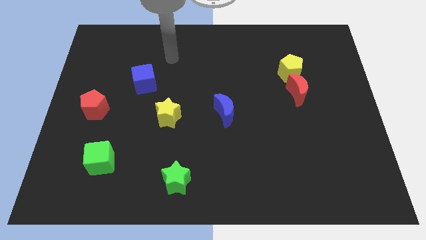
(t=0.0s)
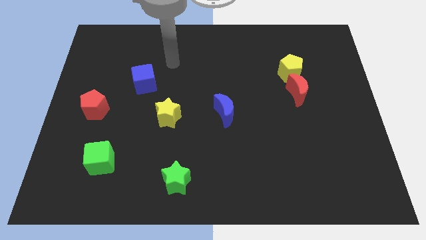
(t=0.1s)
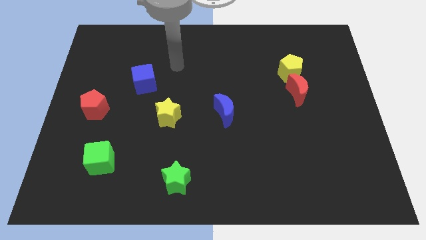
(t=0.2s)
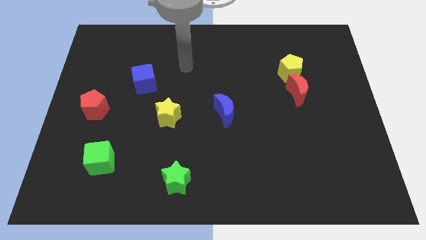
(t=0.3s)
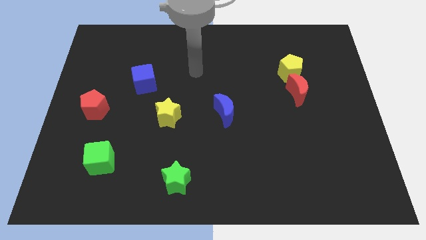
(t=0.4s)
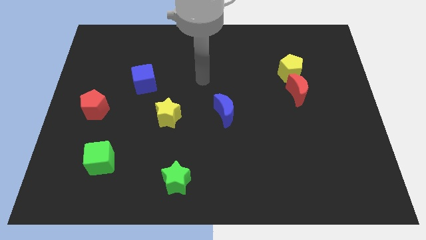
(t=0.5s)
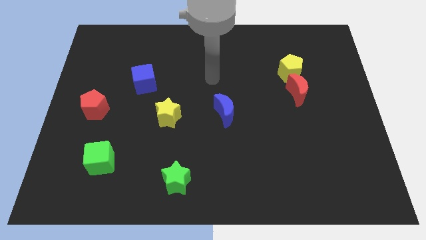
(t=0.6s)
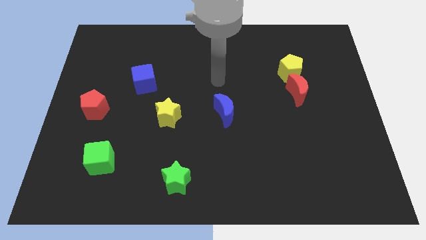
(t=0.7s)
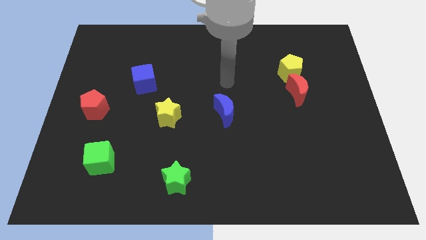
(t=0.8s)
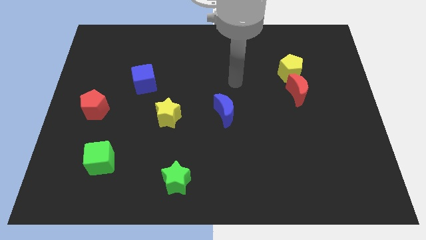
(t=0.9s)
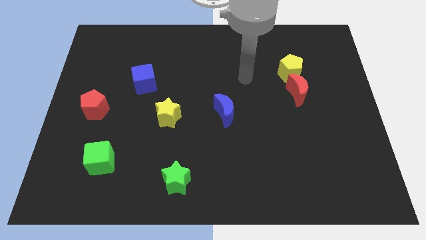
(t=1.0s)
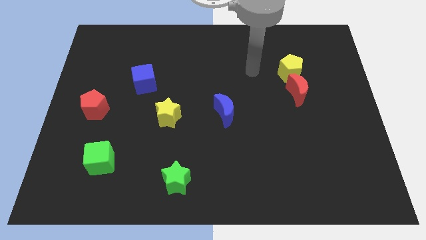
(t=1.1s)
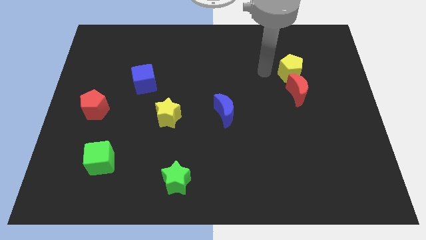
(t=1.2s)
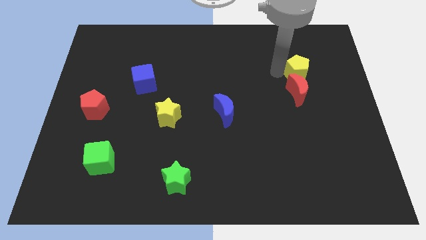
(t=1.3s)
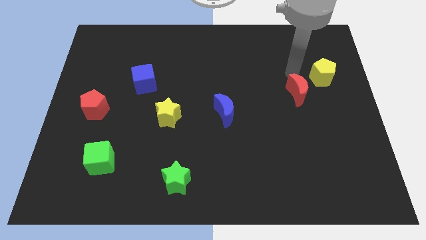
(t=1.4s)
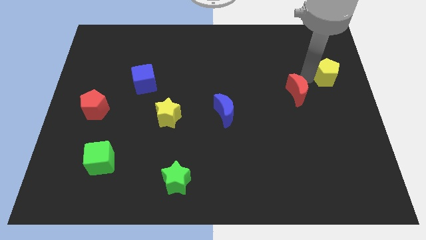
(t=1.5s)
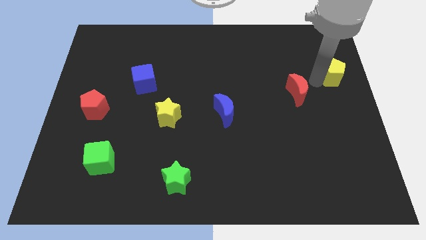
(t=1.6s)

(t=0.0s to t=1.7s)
separate the red moon from the yellow pentagon

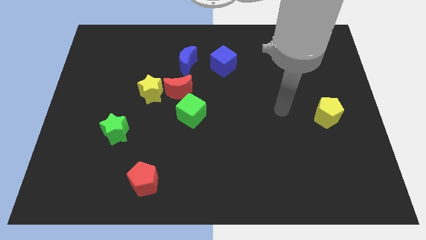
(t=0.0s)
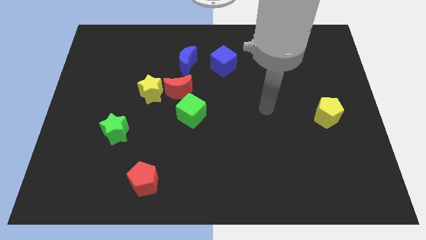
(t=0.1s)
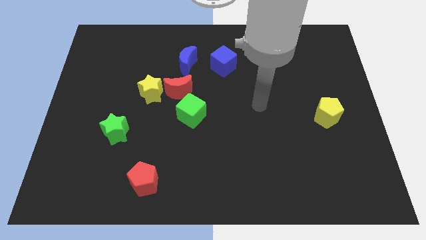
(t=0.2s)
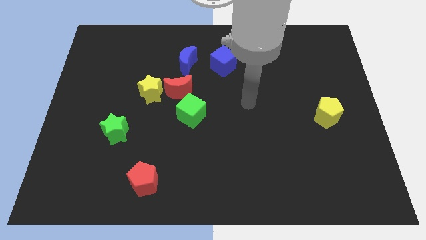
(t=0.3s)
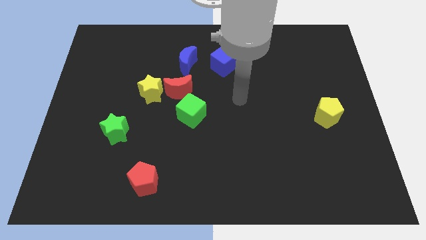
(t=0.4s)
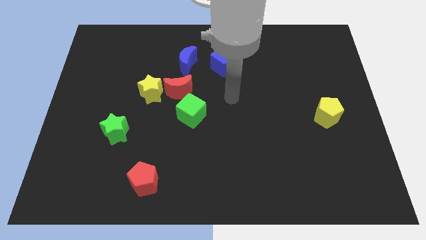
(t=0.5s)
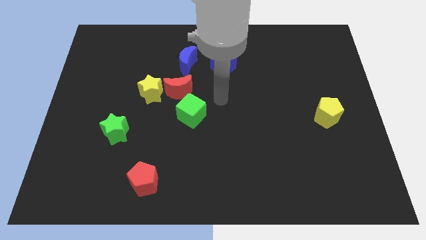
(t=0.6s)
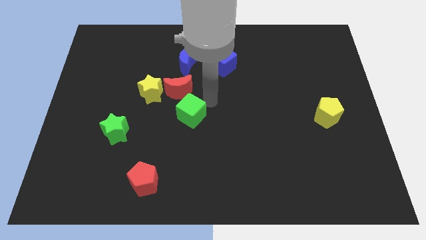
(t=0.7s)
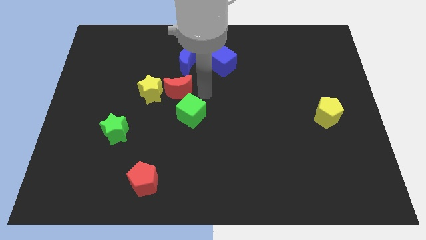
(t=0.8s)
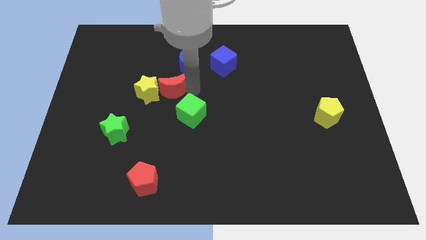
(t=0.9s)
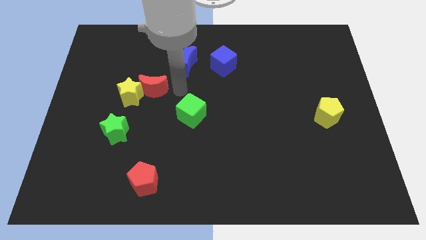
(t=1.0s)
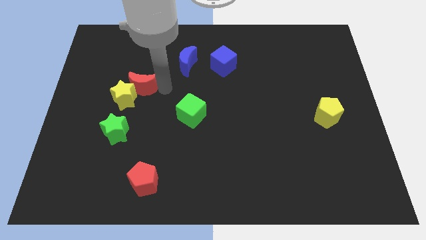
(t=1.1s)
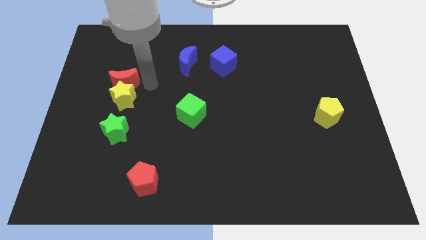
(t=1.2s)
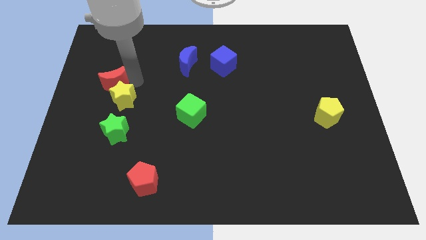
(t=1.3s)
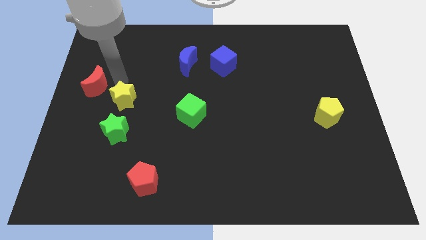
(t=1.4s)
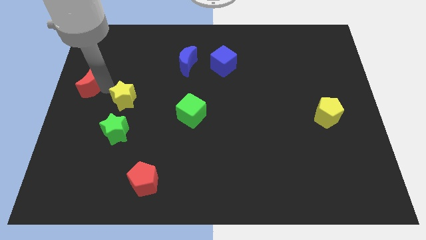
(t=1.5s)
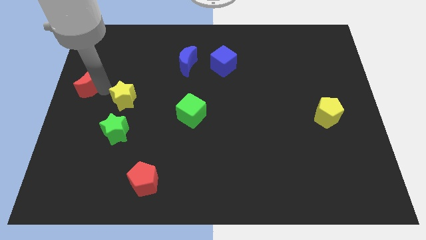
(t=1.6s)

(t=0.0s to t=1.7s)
move the yellow star away from the red moon

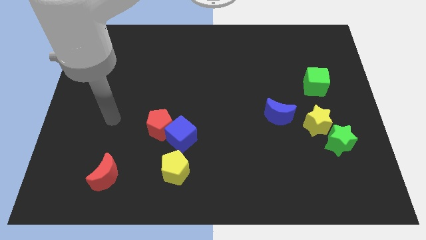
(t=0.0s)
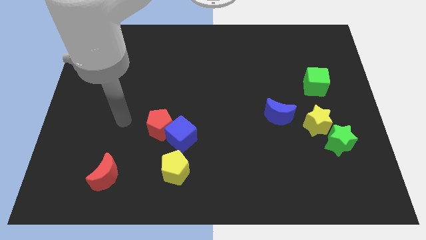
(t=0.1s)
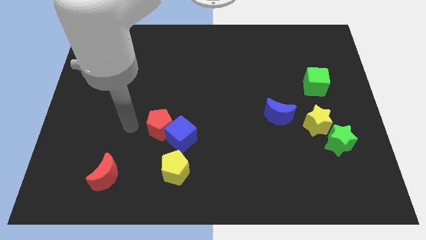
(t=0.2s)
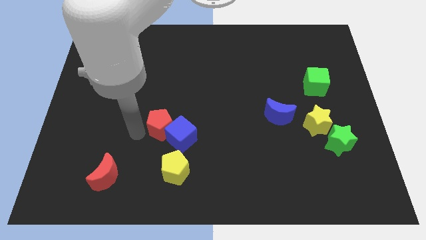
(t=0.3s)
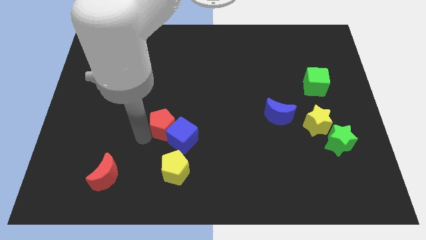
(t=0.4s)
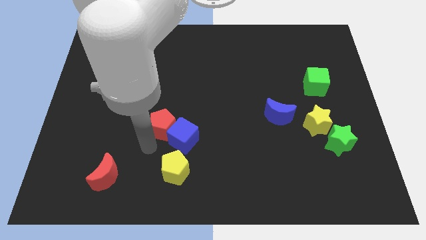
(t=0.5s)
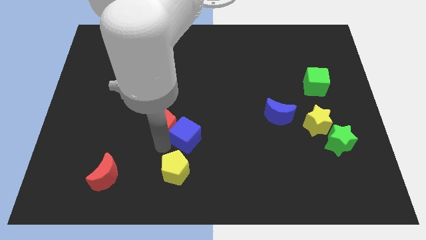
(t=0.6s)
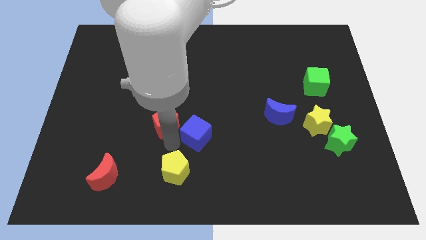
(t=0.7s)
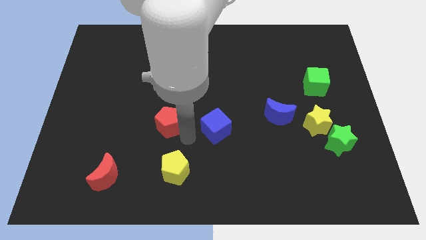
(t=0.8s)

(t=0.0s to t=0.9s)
move the red pentagon away from the blue cube

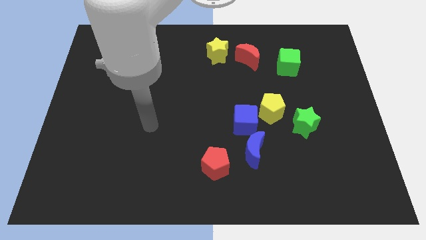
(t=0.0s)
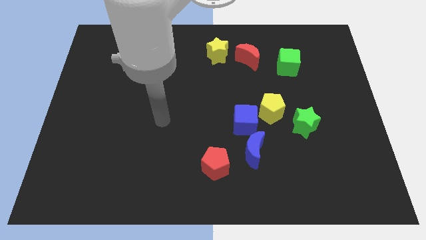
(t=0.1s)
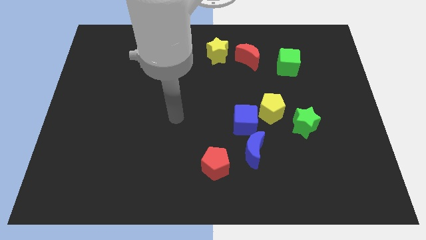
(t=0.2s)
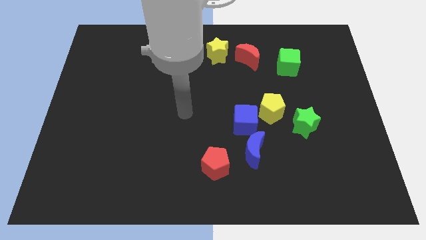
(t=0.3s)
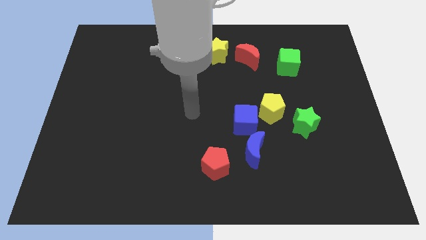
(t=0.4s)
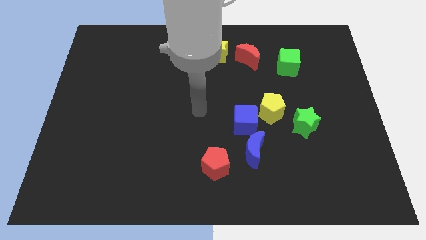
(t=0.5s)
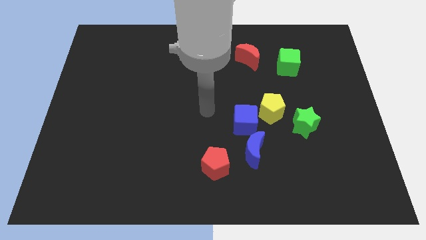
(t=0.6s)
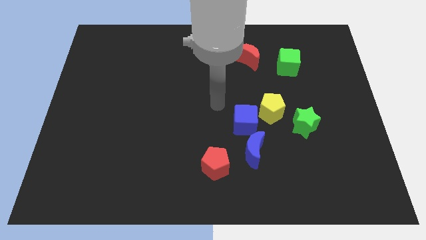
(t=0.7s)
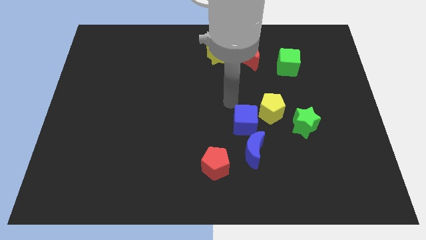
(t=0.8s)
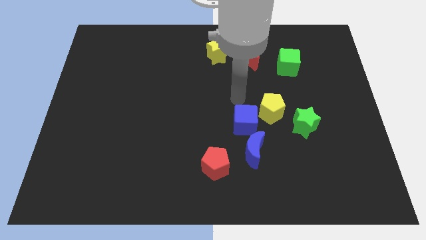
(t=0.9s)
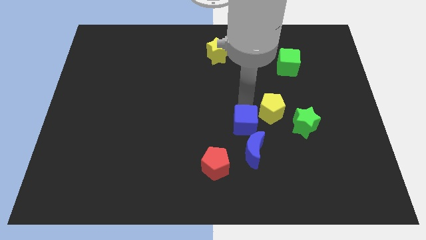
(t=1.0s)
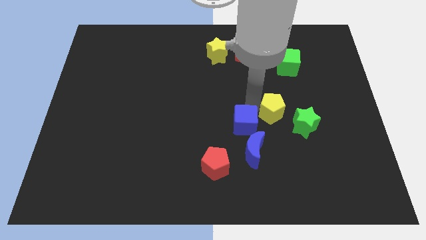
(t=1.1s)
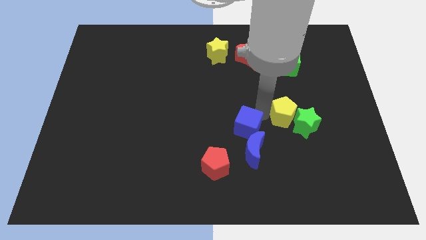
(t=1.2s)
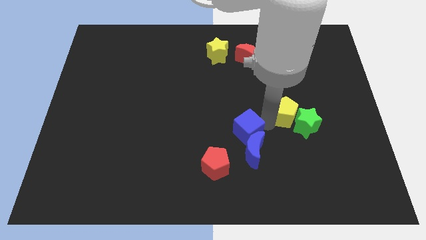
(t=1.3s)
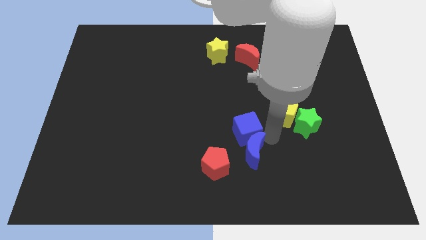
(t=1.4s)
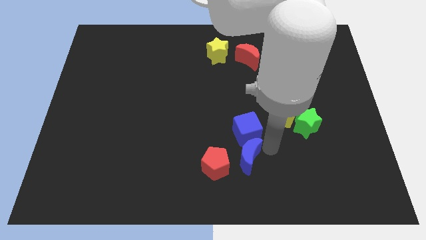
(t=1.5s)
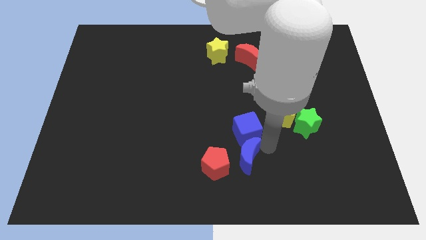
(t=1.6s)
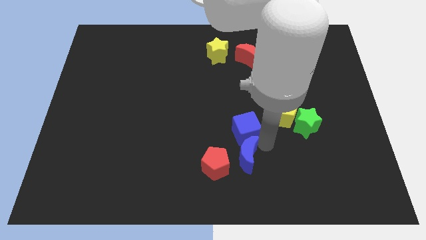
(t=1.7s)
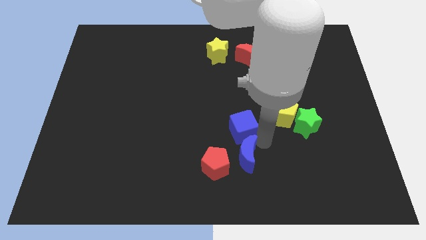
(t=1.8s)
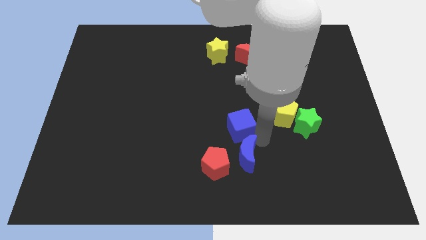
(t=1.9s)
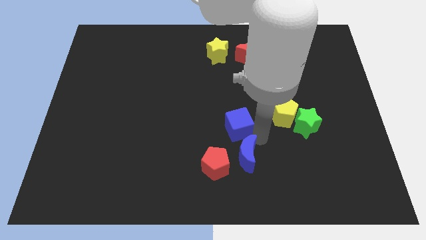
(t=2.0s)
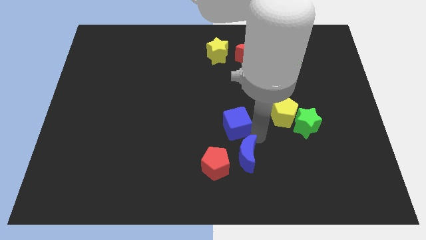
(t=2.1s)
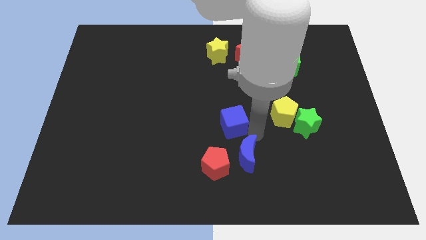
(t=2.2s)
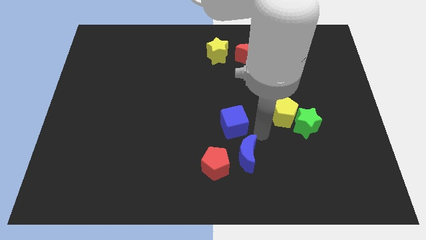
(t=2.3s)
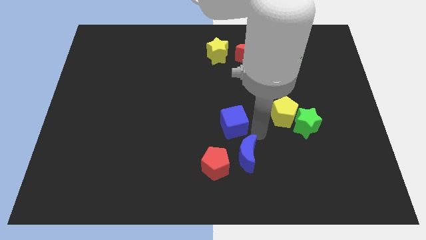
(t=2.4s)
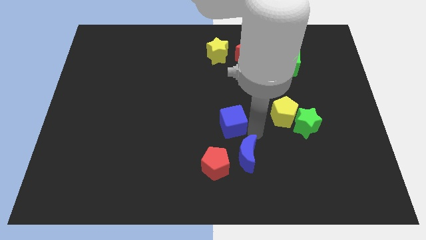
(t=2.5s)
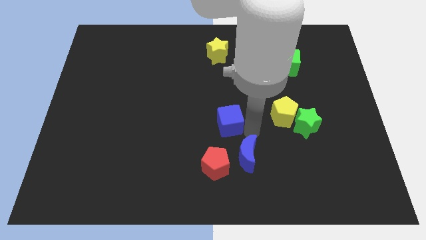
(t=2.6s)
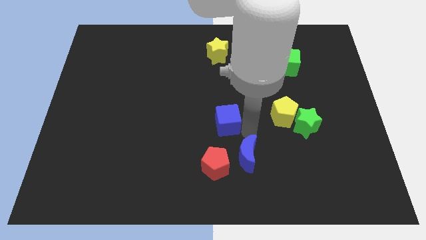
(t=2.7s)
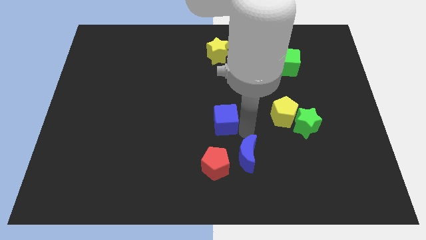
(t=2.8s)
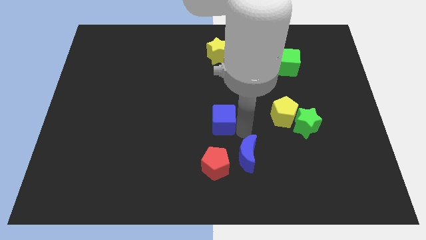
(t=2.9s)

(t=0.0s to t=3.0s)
move the blue cube away from the yellow pentagon and blue moon

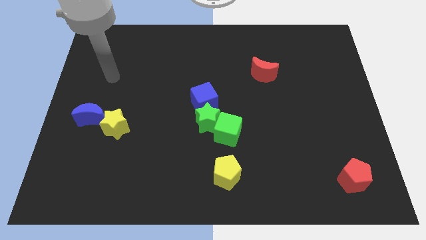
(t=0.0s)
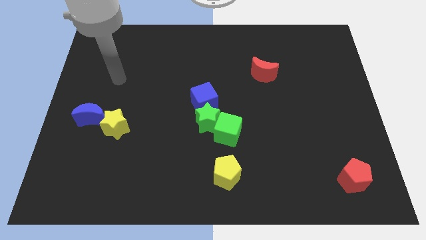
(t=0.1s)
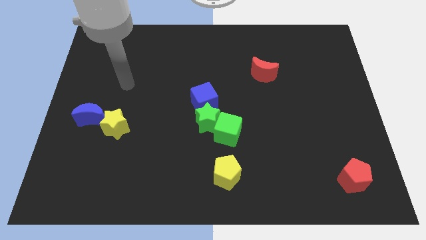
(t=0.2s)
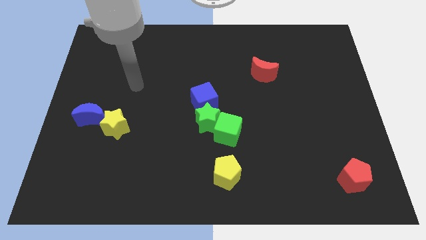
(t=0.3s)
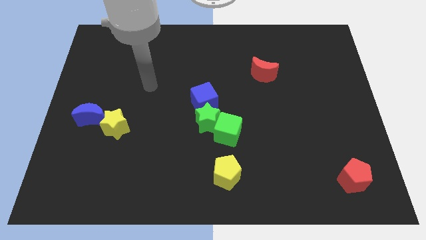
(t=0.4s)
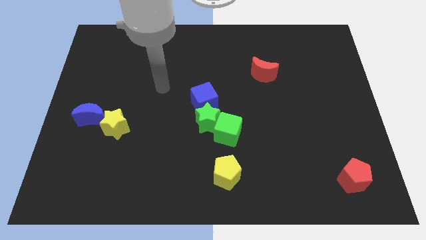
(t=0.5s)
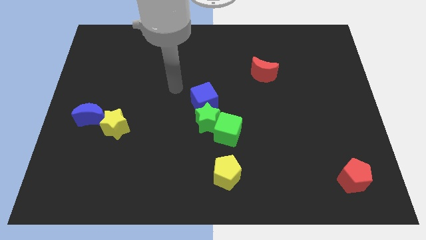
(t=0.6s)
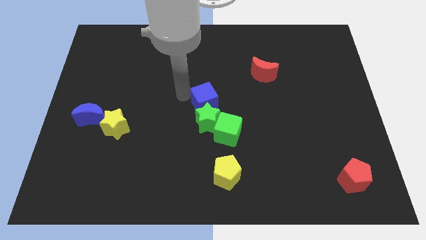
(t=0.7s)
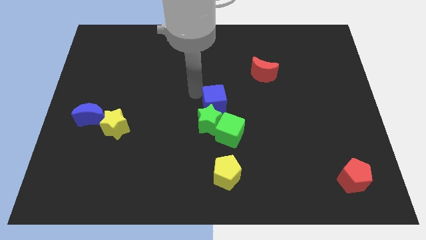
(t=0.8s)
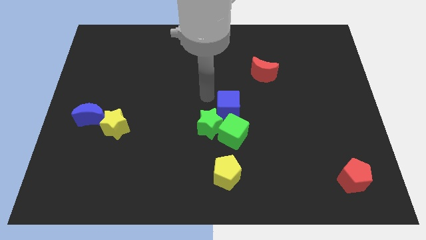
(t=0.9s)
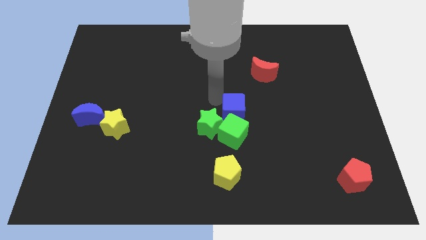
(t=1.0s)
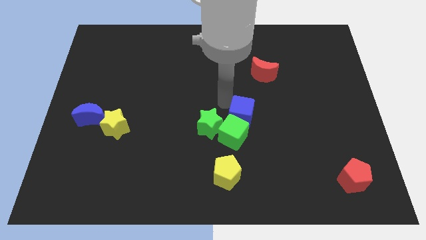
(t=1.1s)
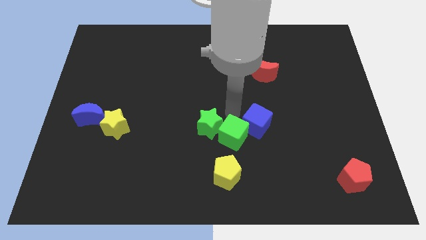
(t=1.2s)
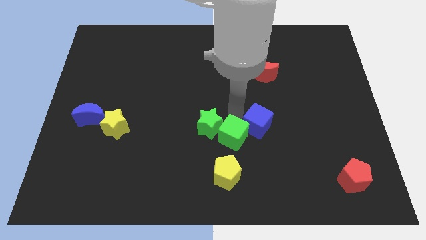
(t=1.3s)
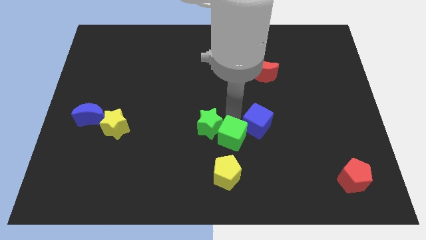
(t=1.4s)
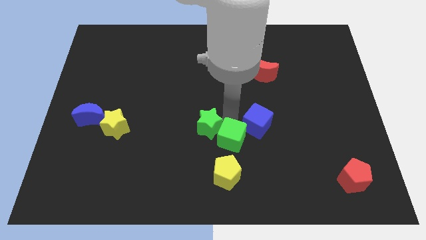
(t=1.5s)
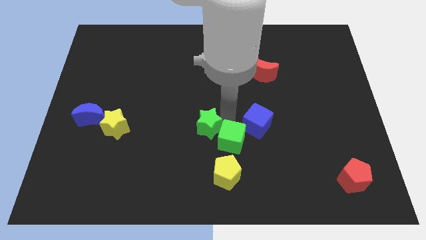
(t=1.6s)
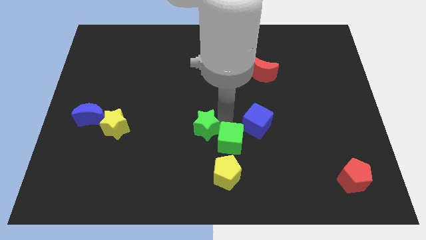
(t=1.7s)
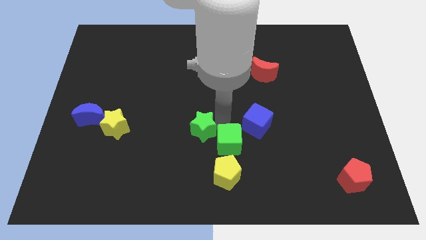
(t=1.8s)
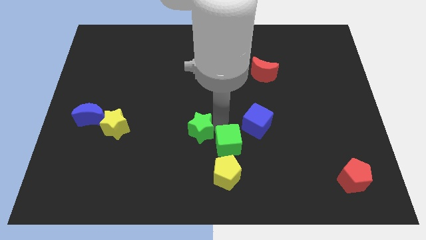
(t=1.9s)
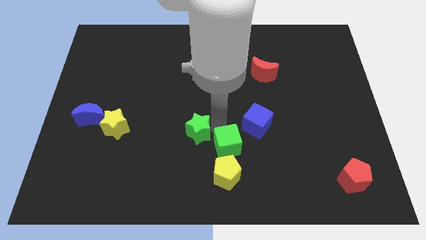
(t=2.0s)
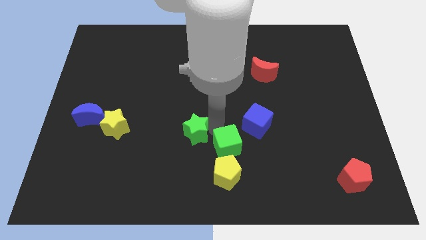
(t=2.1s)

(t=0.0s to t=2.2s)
separate the green star from the green cube and blue cube
